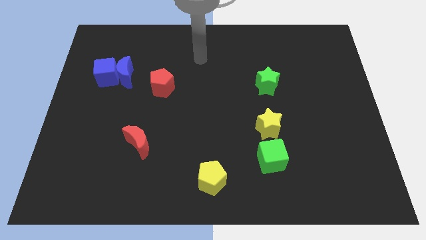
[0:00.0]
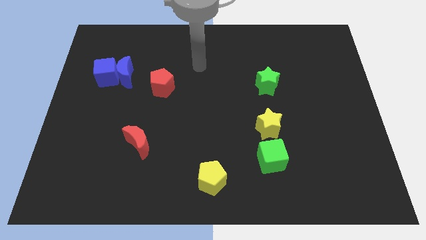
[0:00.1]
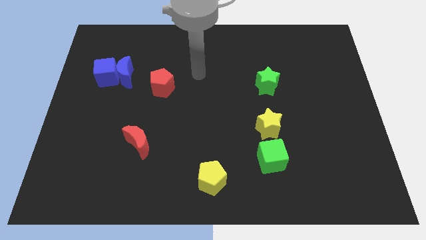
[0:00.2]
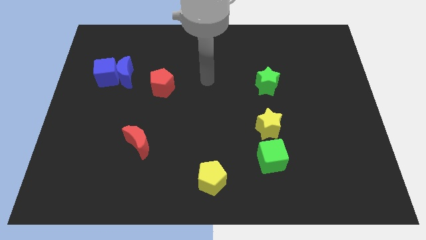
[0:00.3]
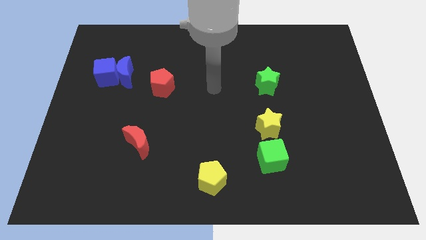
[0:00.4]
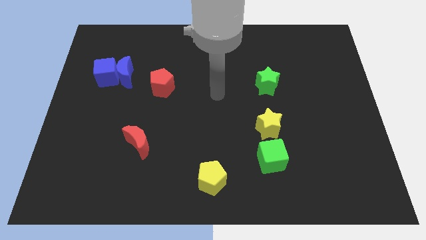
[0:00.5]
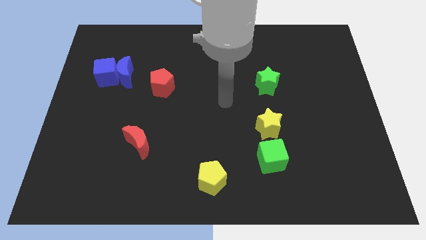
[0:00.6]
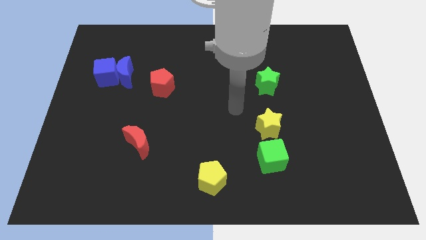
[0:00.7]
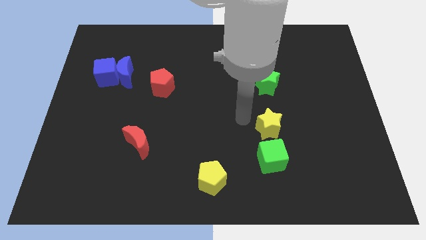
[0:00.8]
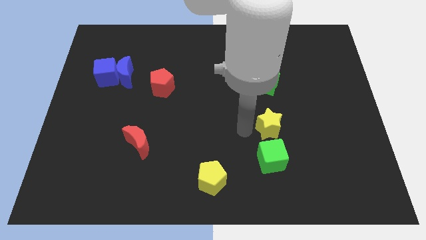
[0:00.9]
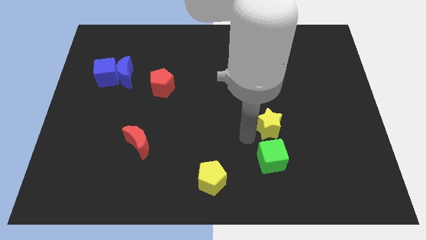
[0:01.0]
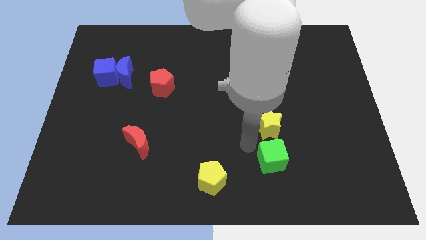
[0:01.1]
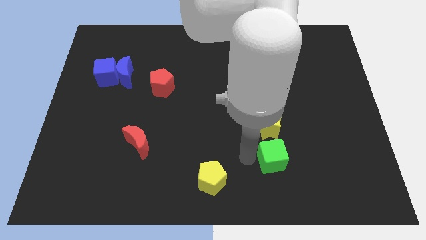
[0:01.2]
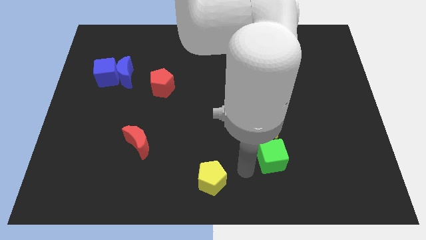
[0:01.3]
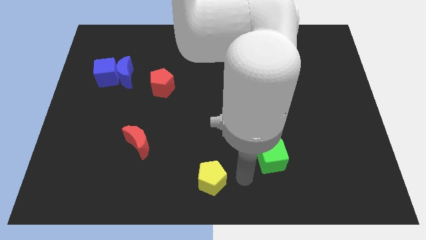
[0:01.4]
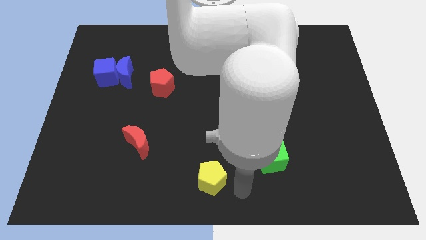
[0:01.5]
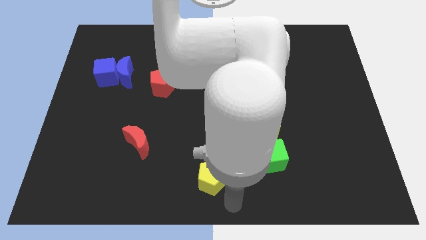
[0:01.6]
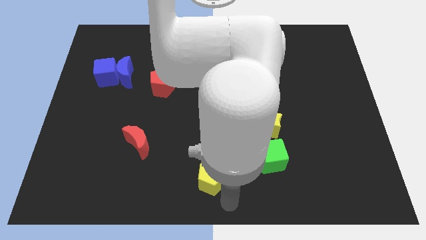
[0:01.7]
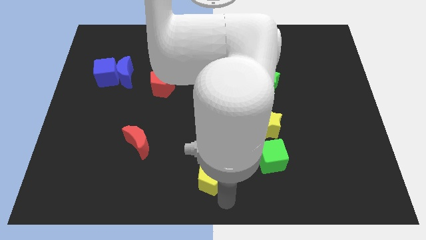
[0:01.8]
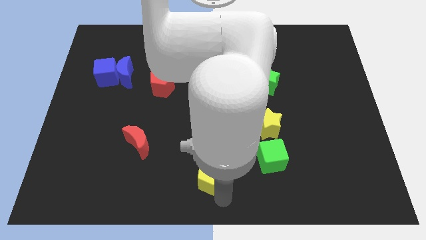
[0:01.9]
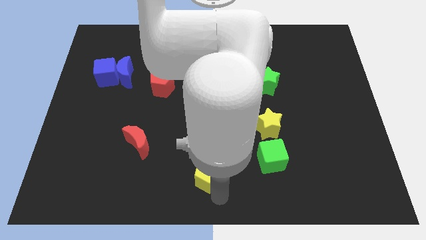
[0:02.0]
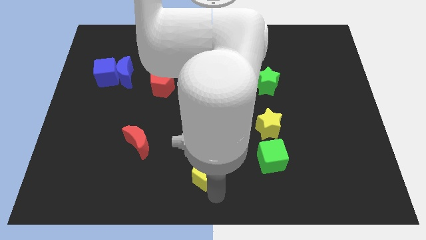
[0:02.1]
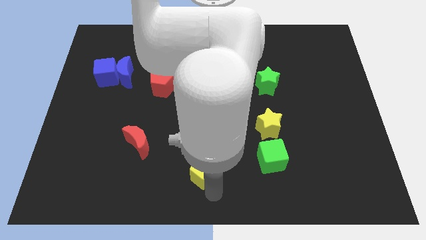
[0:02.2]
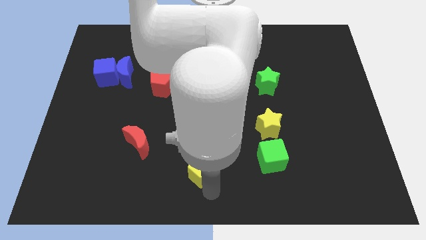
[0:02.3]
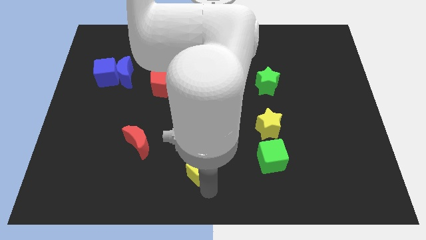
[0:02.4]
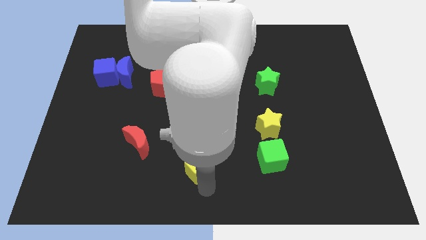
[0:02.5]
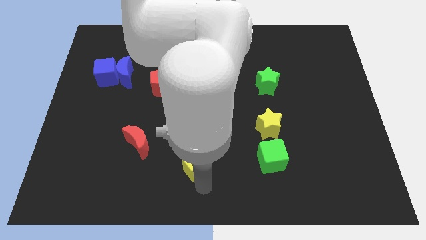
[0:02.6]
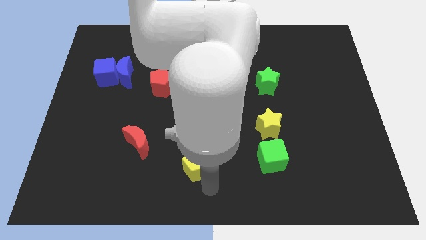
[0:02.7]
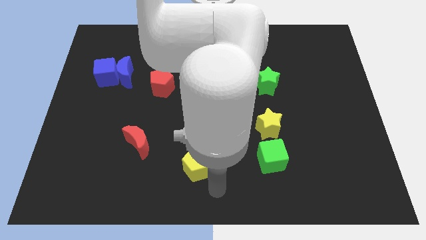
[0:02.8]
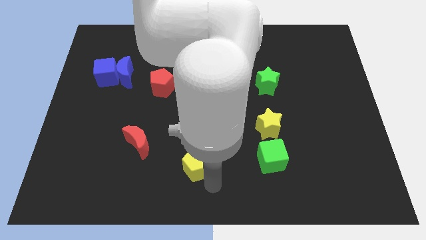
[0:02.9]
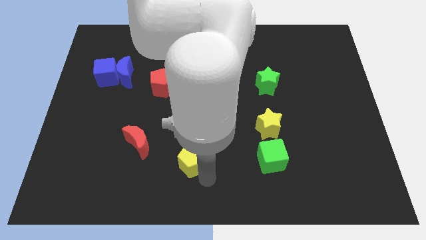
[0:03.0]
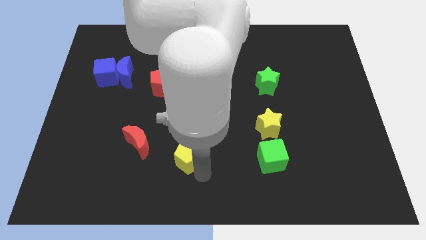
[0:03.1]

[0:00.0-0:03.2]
move the yellow pentagon up and then to the left somewhat

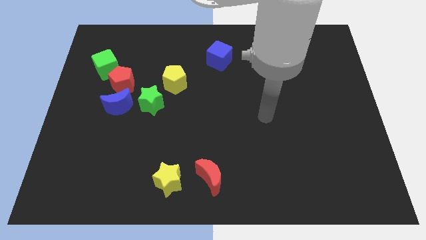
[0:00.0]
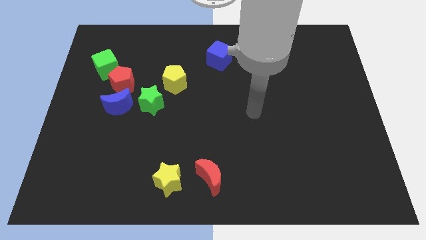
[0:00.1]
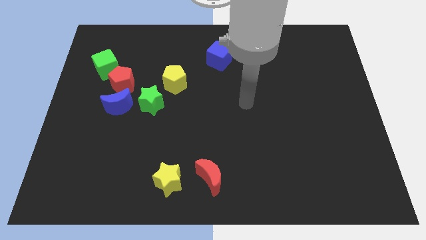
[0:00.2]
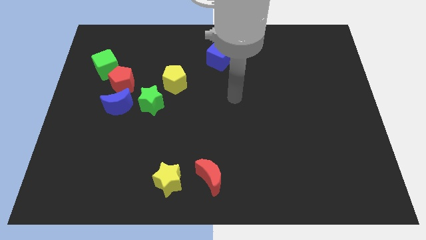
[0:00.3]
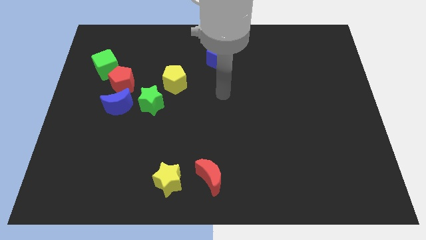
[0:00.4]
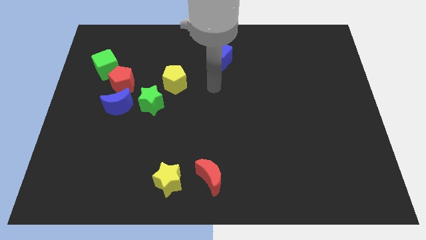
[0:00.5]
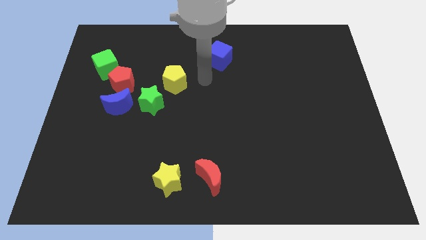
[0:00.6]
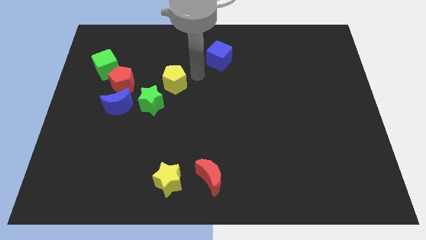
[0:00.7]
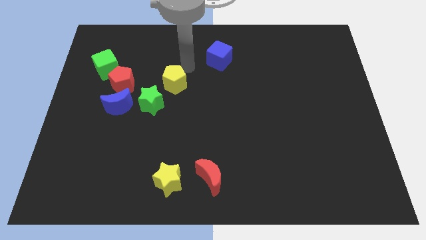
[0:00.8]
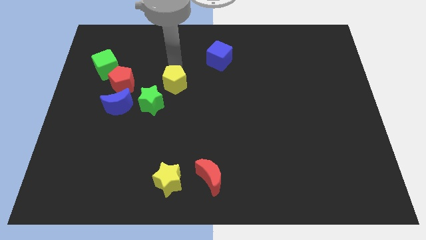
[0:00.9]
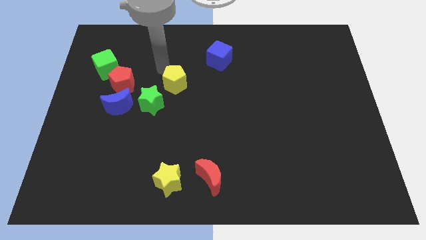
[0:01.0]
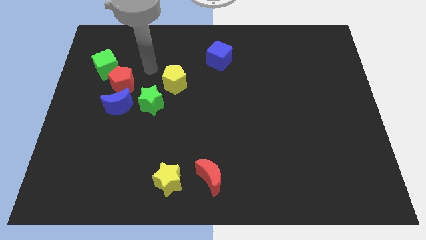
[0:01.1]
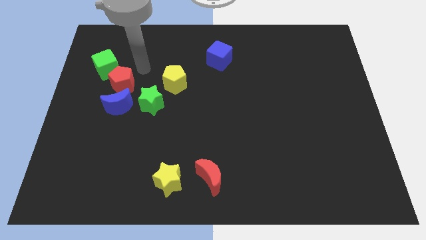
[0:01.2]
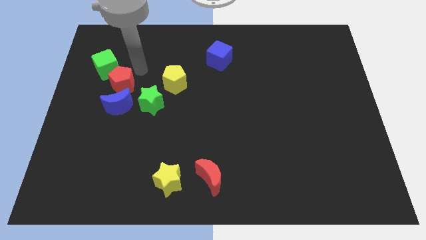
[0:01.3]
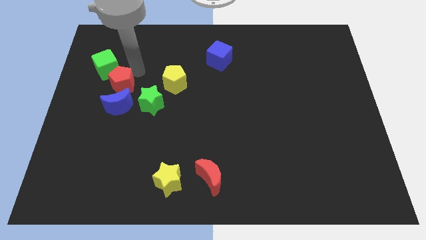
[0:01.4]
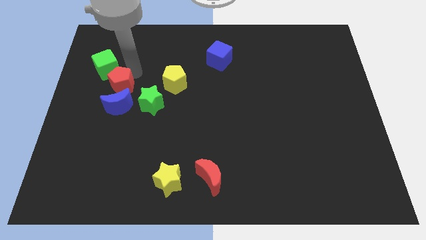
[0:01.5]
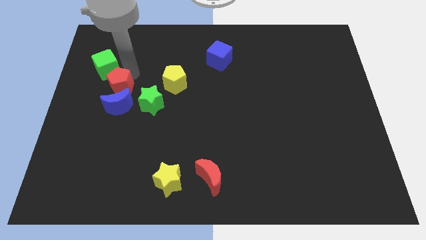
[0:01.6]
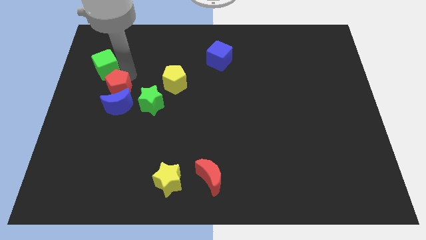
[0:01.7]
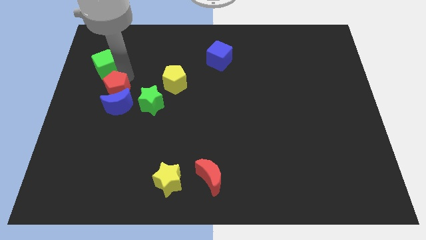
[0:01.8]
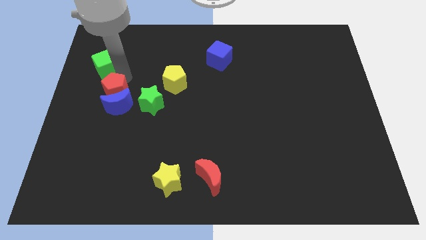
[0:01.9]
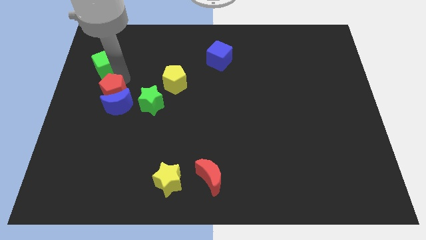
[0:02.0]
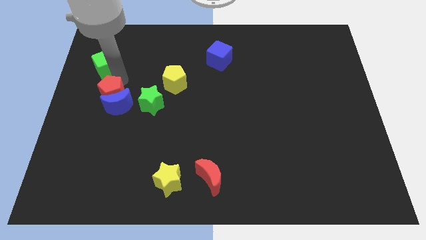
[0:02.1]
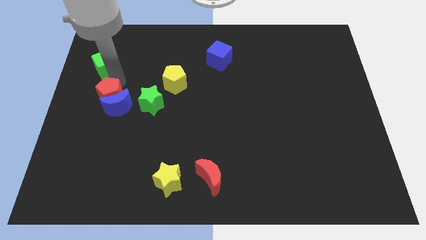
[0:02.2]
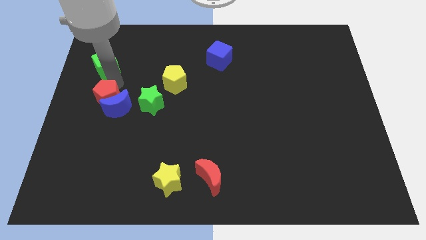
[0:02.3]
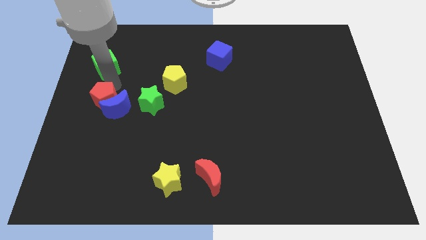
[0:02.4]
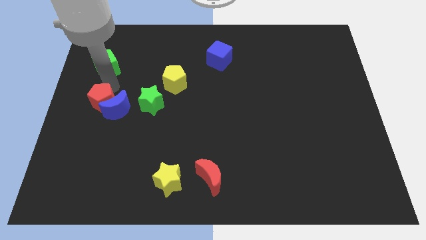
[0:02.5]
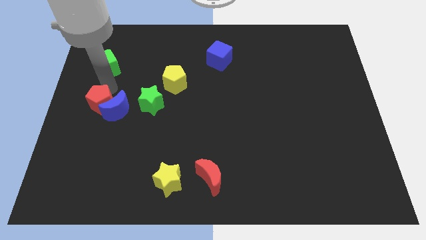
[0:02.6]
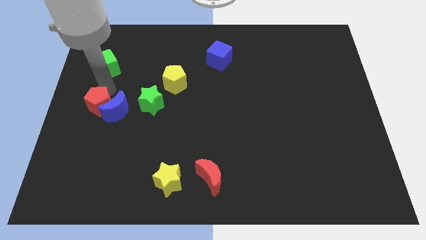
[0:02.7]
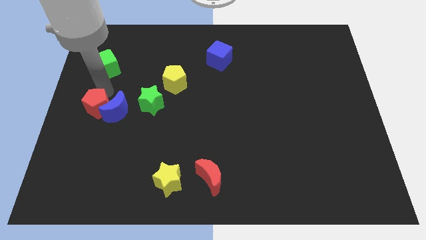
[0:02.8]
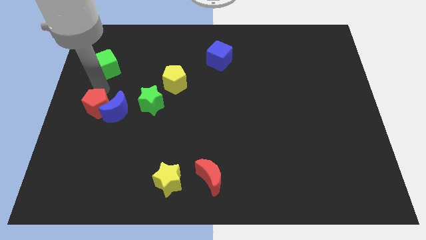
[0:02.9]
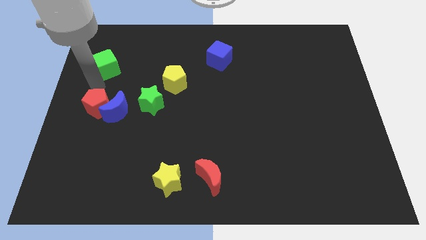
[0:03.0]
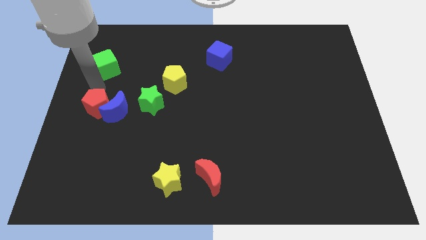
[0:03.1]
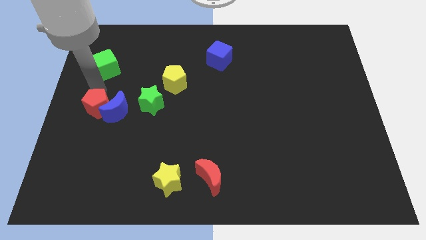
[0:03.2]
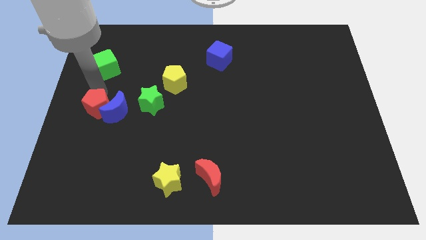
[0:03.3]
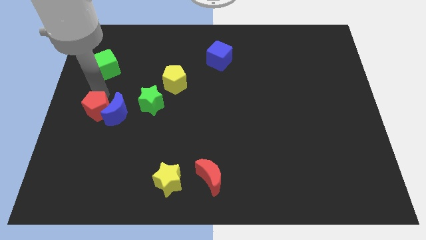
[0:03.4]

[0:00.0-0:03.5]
slide the red pentagon downwards a little bit

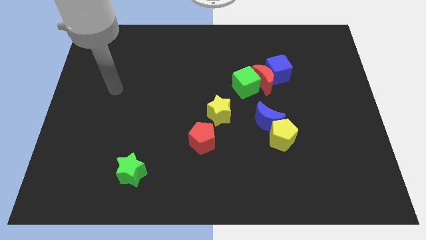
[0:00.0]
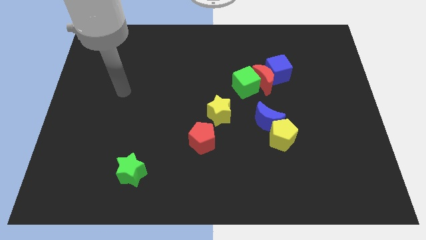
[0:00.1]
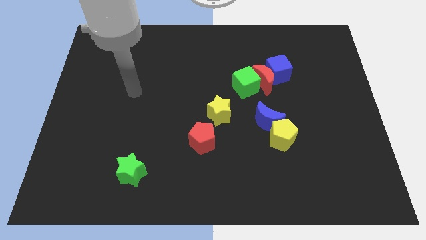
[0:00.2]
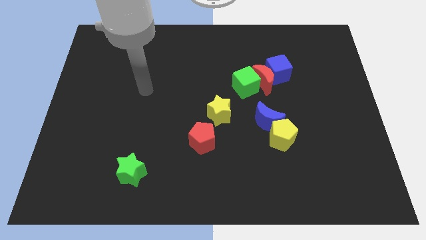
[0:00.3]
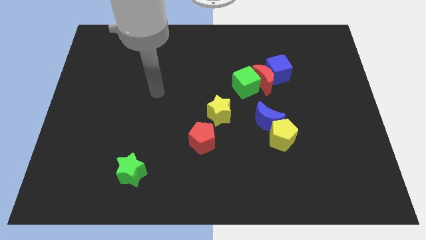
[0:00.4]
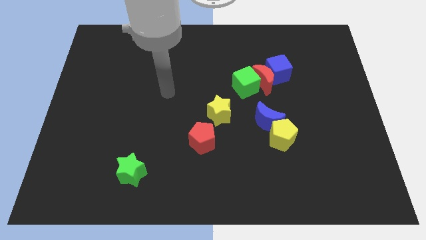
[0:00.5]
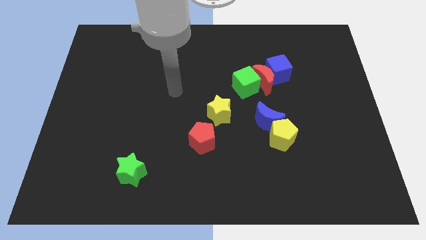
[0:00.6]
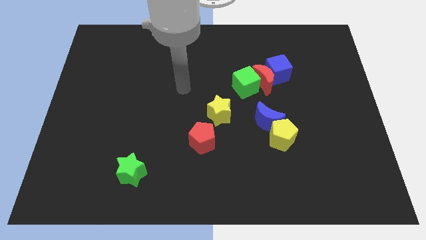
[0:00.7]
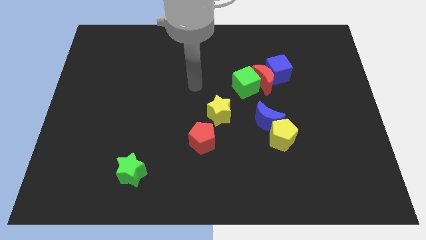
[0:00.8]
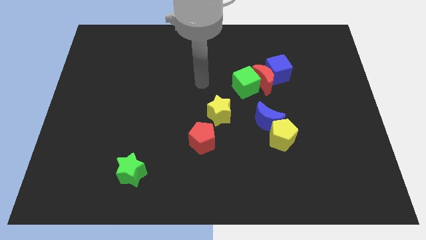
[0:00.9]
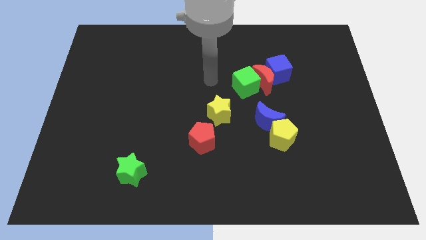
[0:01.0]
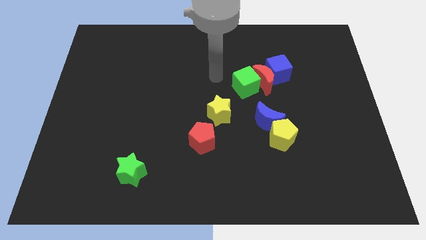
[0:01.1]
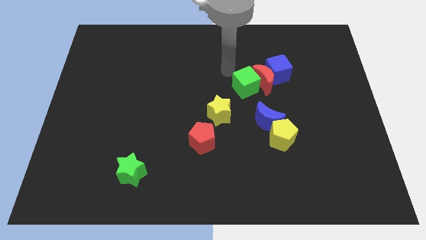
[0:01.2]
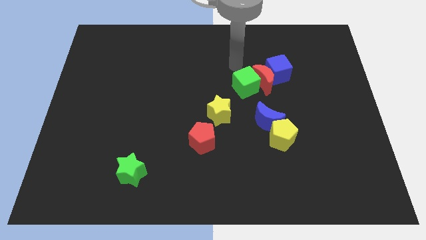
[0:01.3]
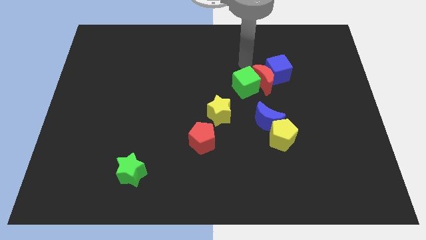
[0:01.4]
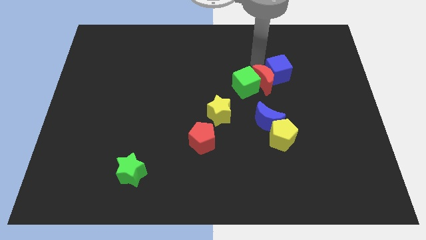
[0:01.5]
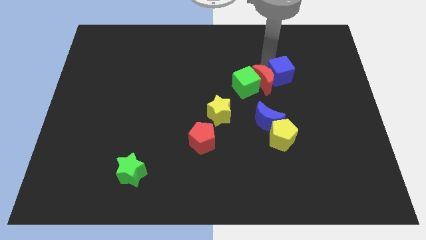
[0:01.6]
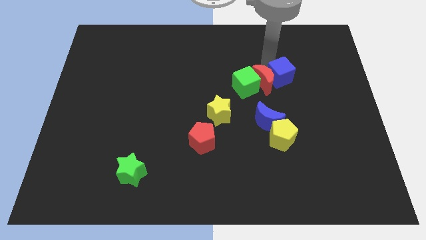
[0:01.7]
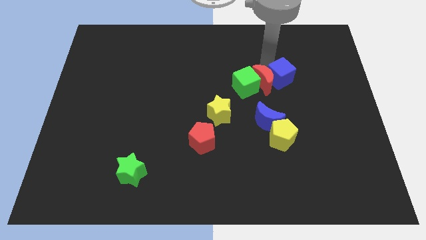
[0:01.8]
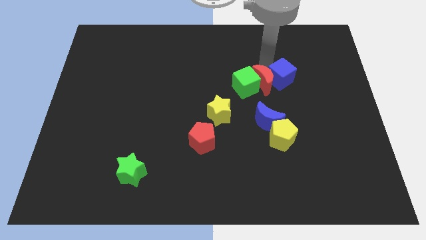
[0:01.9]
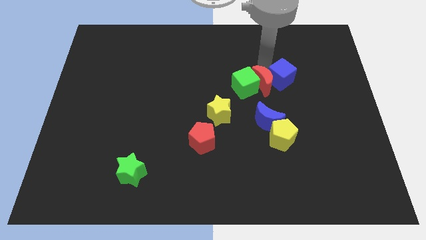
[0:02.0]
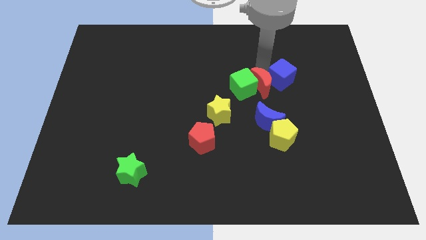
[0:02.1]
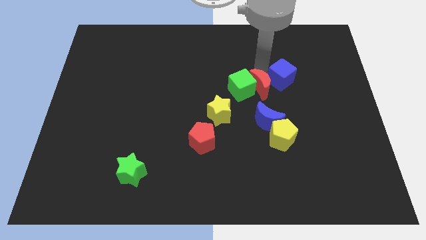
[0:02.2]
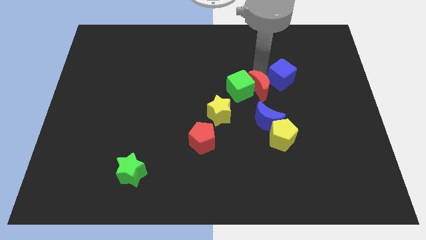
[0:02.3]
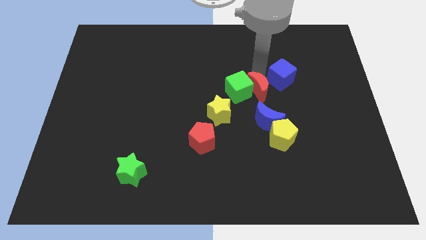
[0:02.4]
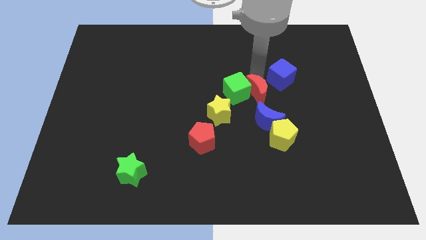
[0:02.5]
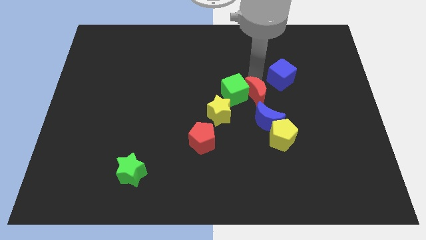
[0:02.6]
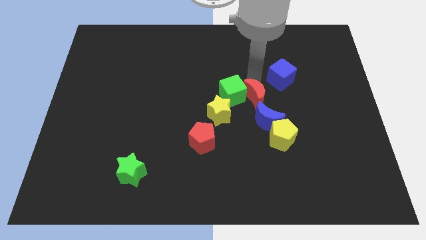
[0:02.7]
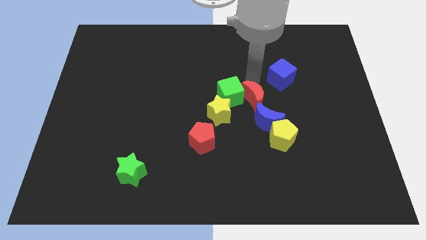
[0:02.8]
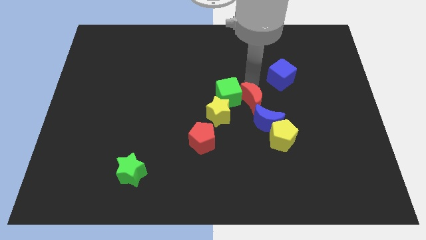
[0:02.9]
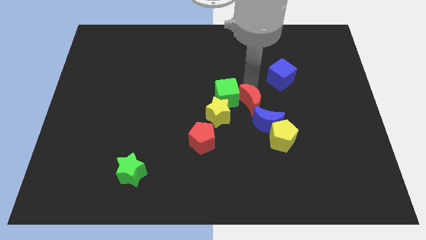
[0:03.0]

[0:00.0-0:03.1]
push the red moon a little bit diagonally down and to the left
